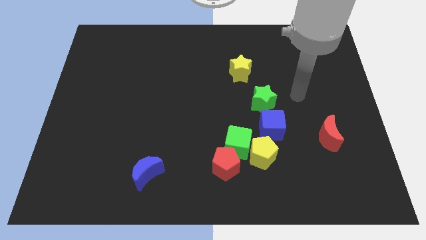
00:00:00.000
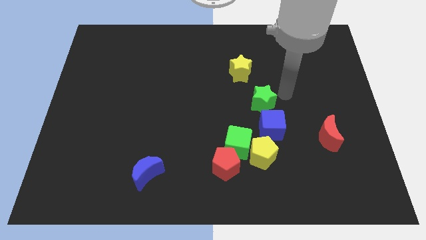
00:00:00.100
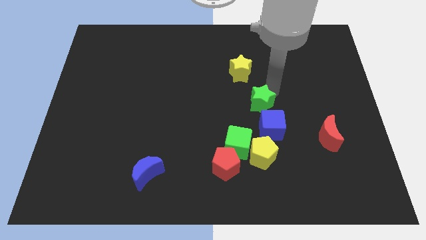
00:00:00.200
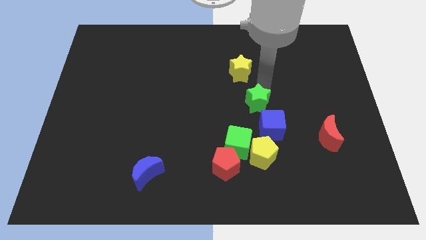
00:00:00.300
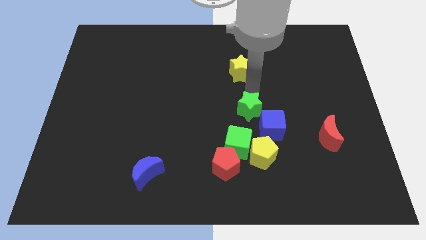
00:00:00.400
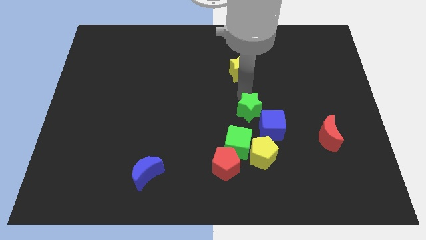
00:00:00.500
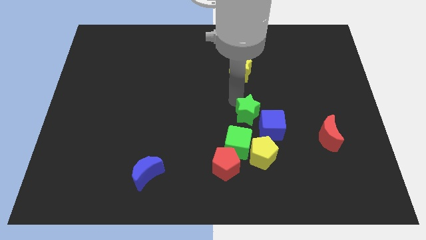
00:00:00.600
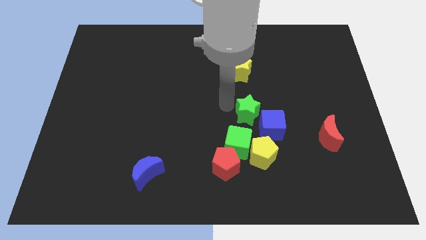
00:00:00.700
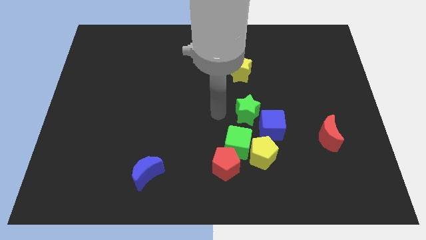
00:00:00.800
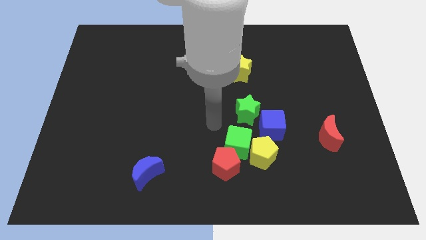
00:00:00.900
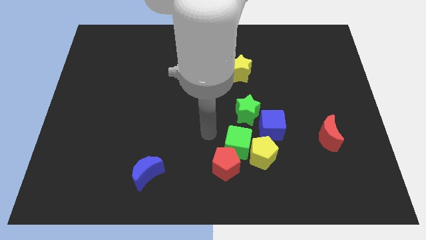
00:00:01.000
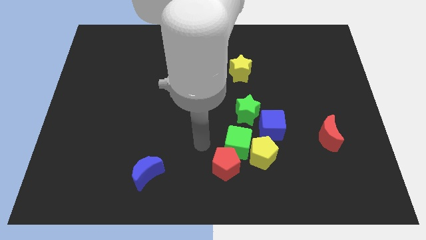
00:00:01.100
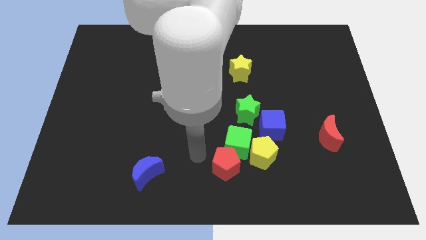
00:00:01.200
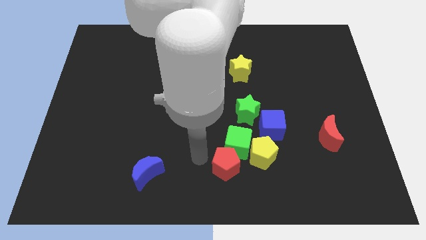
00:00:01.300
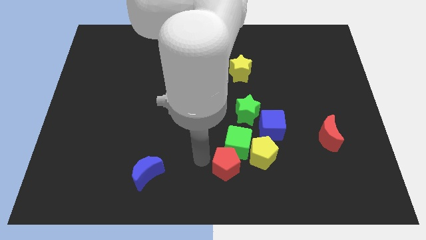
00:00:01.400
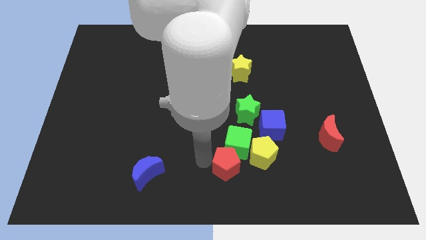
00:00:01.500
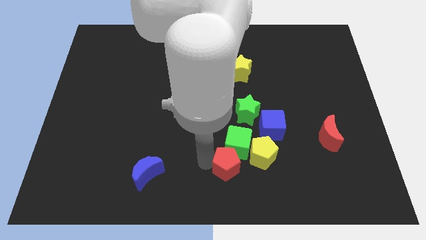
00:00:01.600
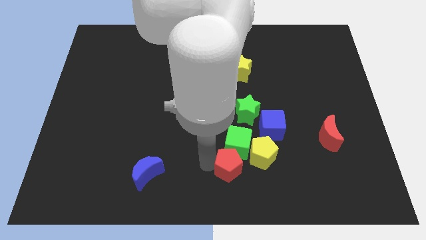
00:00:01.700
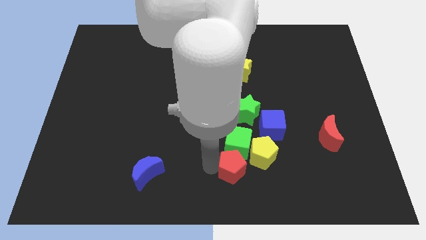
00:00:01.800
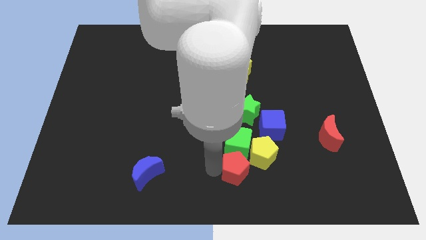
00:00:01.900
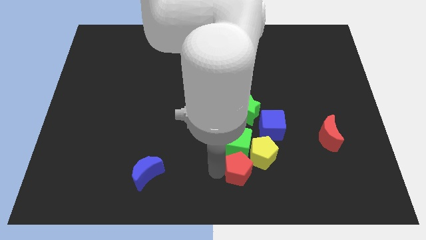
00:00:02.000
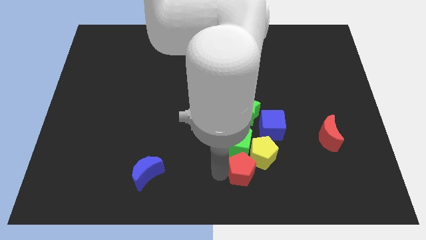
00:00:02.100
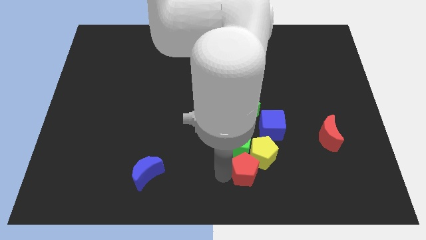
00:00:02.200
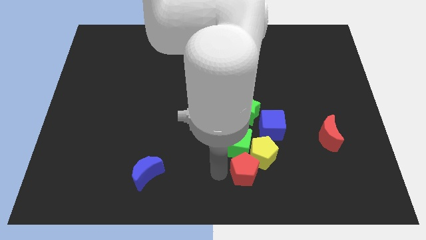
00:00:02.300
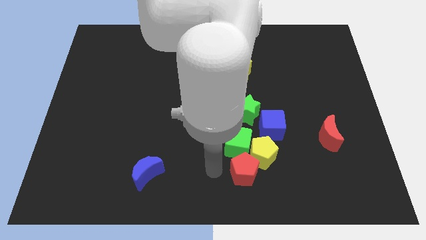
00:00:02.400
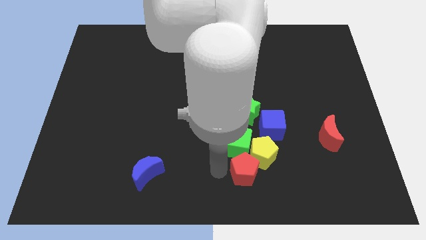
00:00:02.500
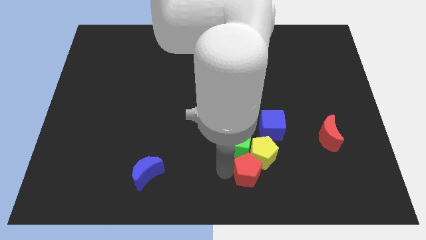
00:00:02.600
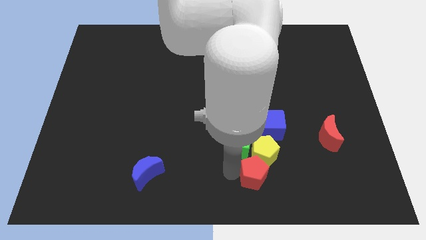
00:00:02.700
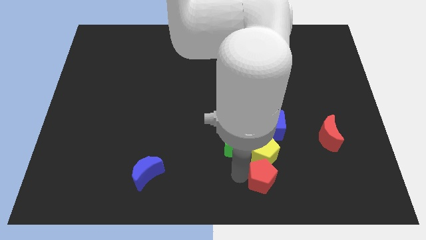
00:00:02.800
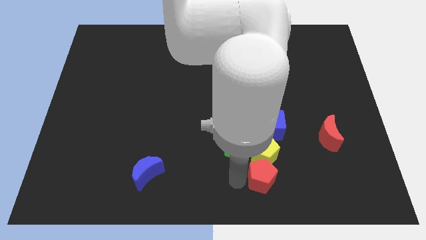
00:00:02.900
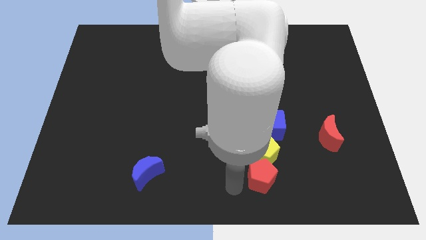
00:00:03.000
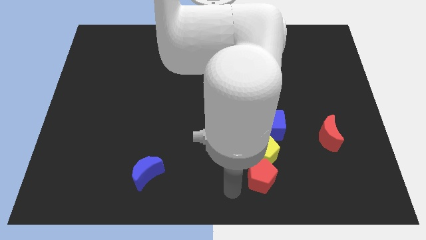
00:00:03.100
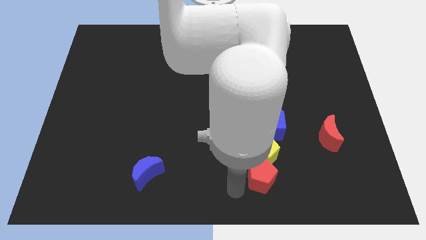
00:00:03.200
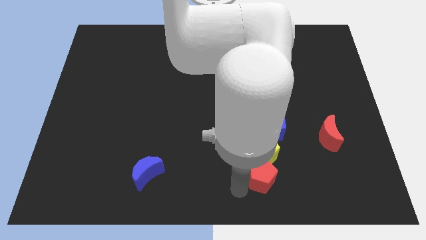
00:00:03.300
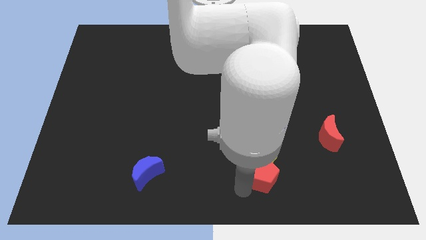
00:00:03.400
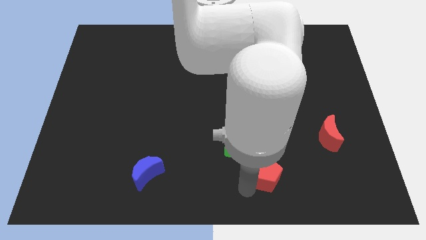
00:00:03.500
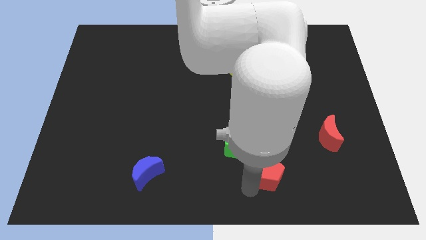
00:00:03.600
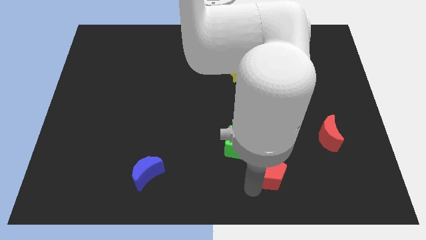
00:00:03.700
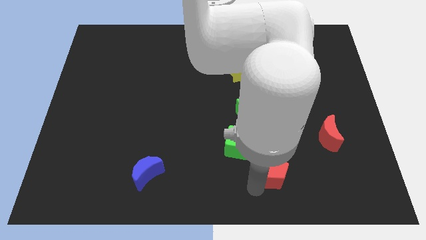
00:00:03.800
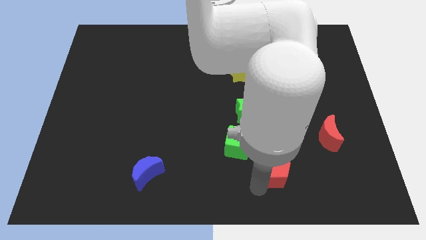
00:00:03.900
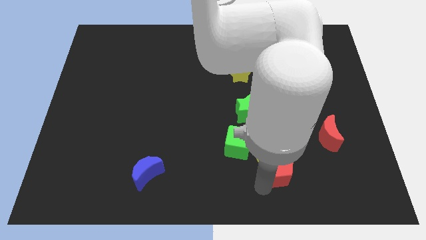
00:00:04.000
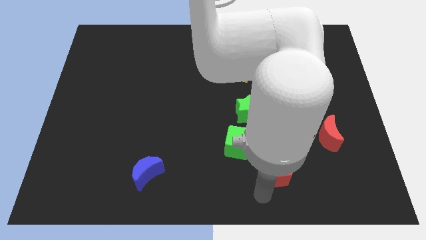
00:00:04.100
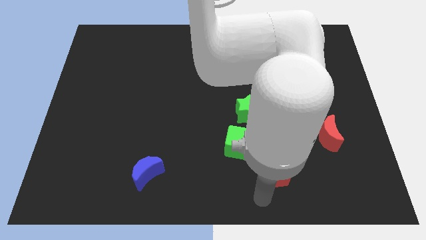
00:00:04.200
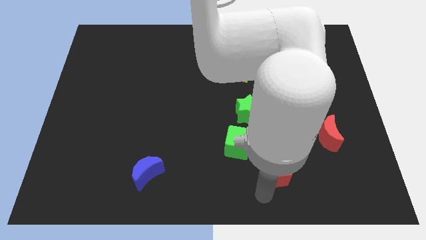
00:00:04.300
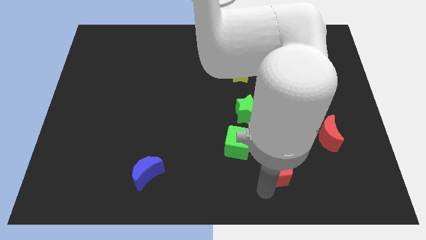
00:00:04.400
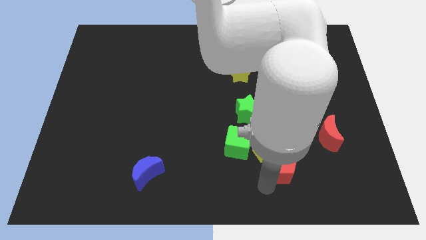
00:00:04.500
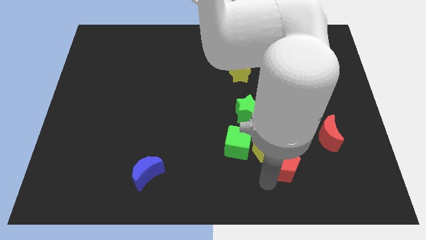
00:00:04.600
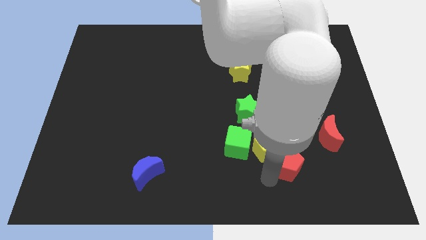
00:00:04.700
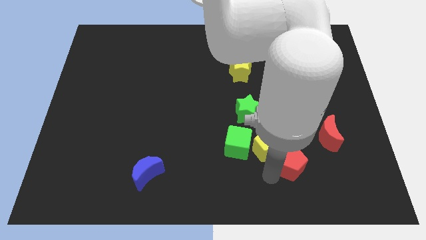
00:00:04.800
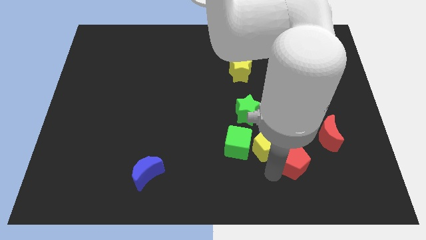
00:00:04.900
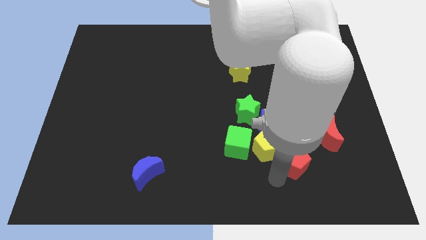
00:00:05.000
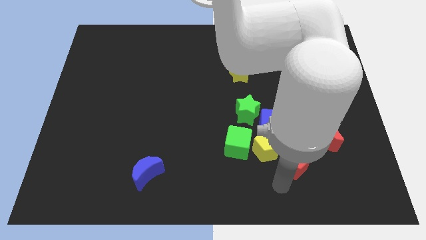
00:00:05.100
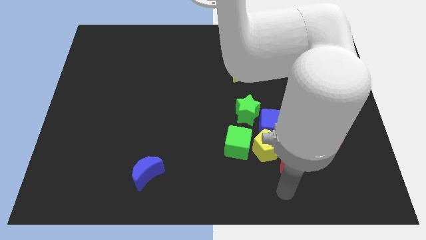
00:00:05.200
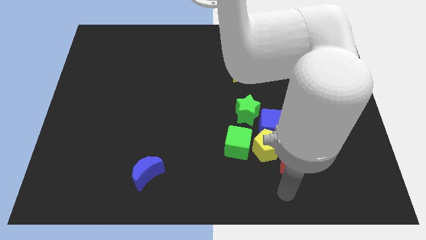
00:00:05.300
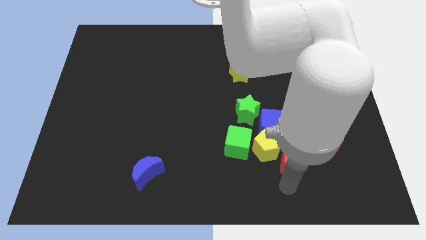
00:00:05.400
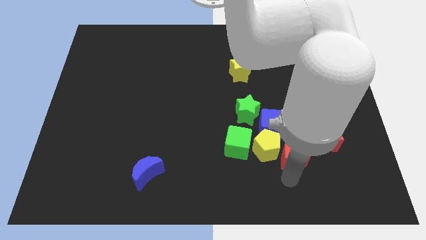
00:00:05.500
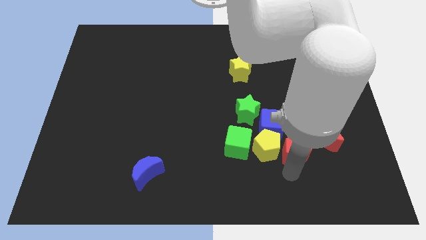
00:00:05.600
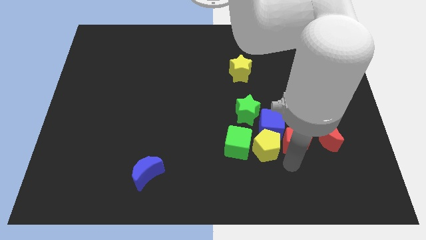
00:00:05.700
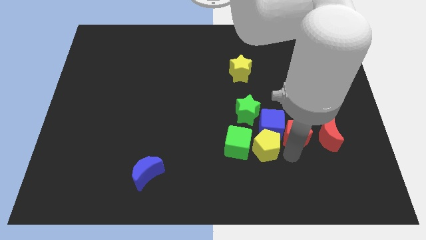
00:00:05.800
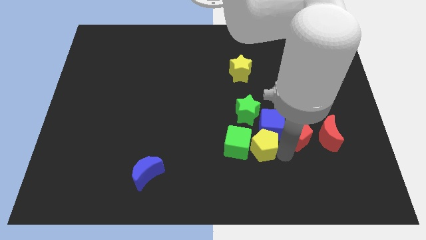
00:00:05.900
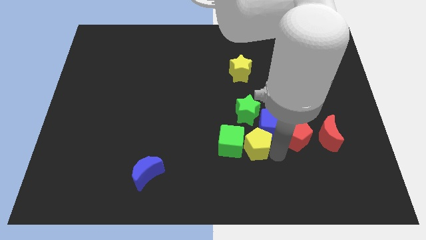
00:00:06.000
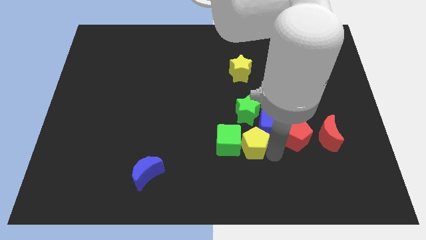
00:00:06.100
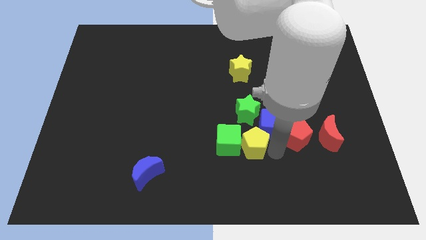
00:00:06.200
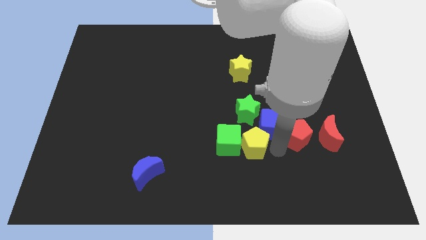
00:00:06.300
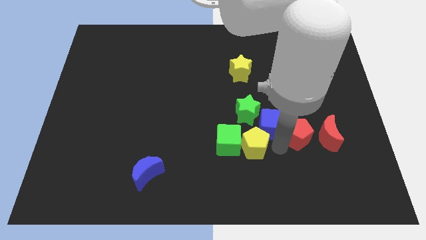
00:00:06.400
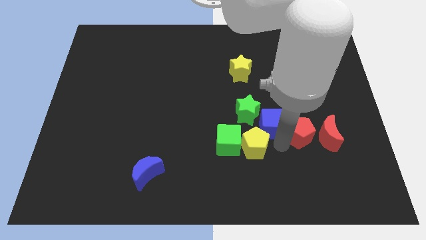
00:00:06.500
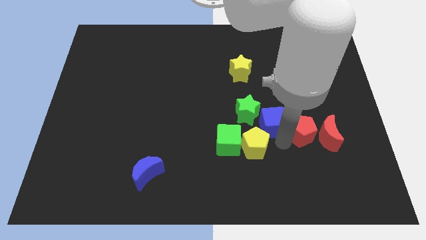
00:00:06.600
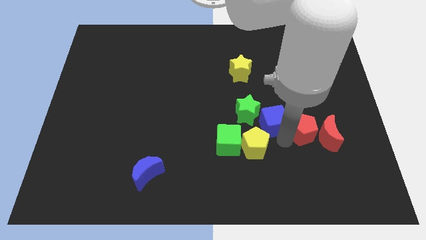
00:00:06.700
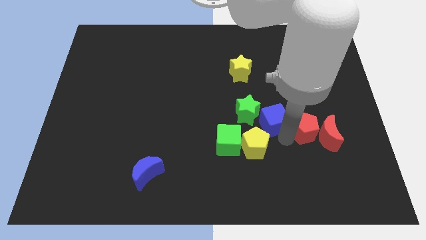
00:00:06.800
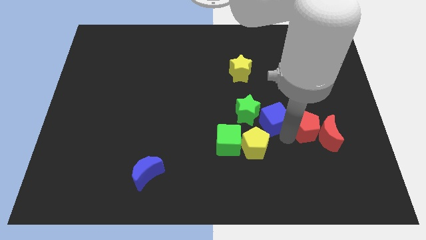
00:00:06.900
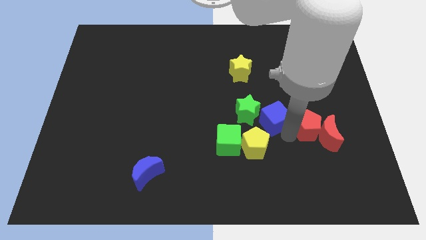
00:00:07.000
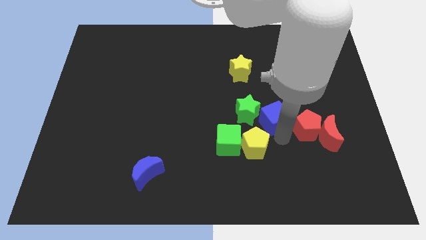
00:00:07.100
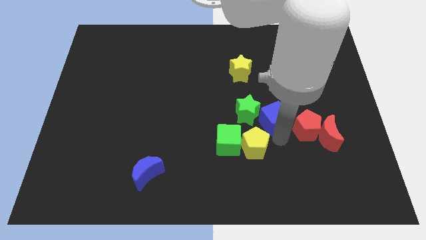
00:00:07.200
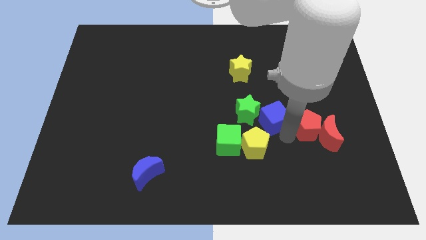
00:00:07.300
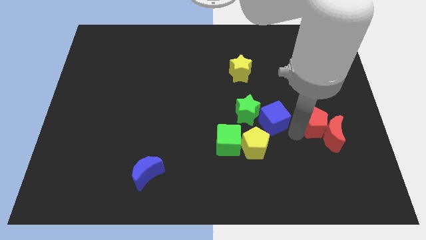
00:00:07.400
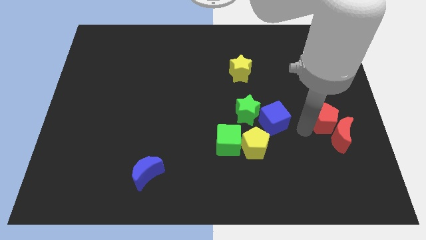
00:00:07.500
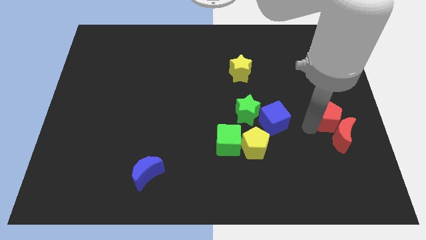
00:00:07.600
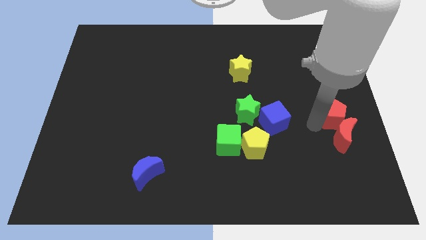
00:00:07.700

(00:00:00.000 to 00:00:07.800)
push the red pentagon to the right side
